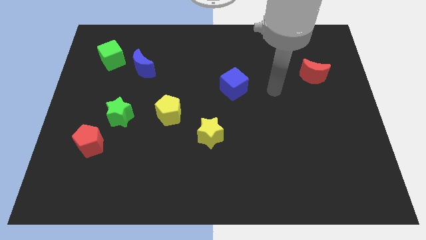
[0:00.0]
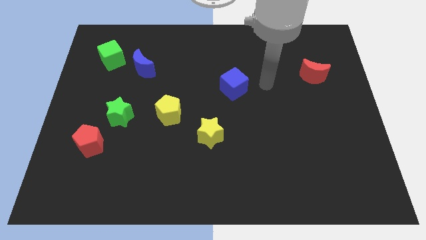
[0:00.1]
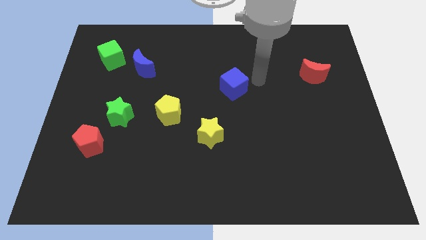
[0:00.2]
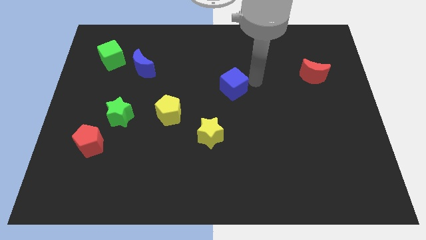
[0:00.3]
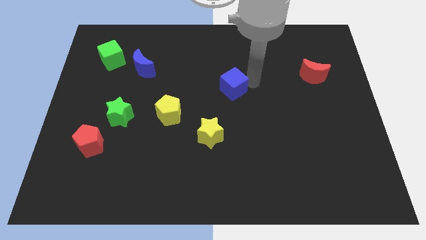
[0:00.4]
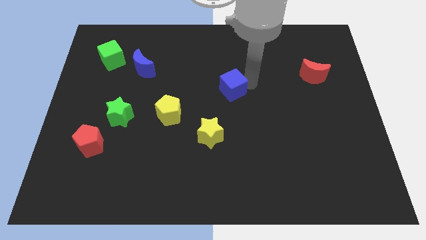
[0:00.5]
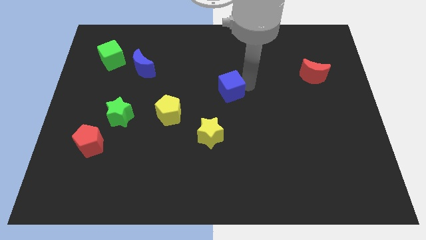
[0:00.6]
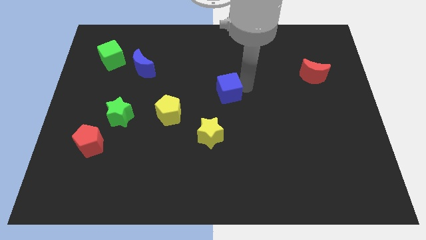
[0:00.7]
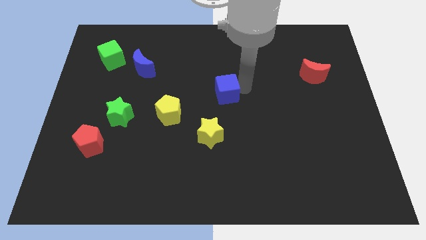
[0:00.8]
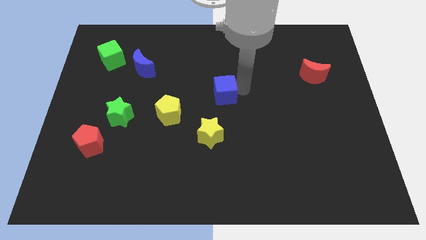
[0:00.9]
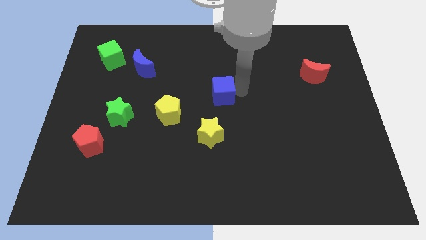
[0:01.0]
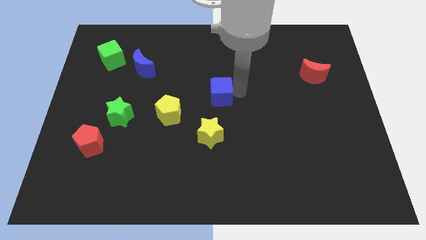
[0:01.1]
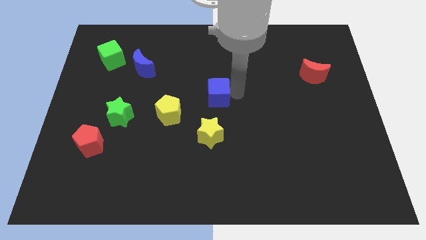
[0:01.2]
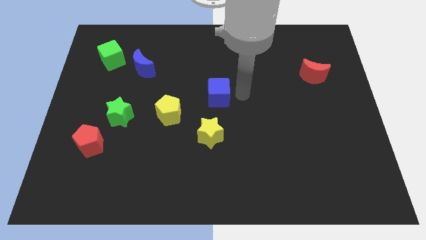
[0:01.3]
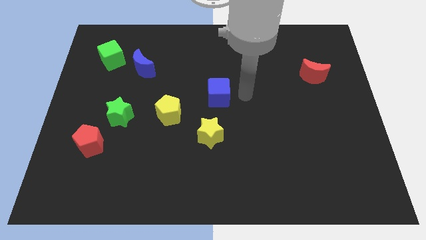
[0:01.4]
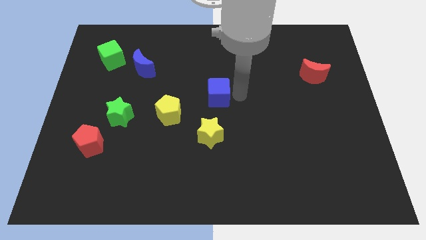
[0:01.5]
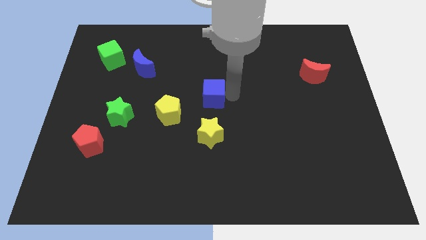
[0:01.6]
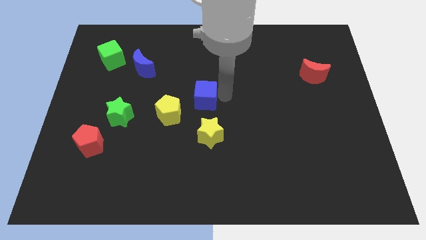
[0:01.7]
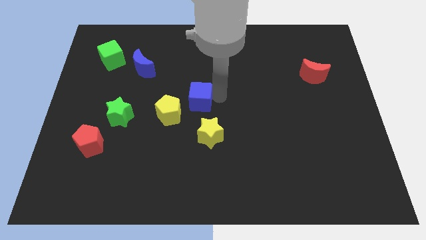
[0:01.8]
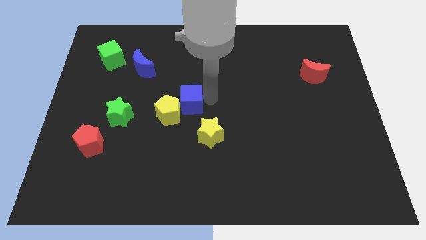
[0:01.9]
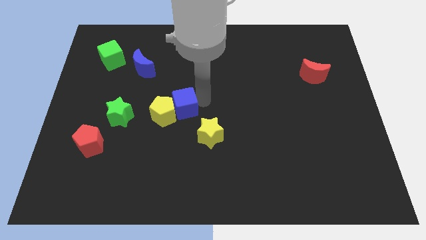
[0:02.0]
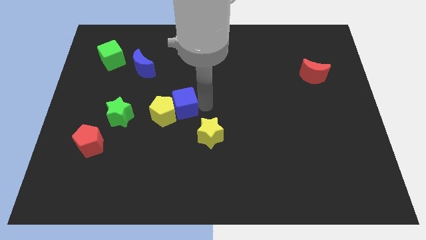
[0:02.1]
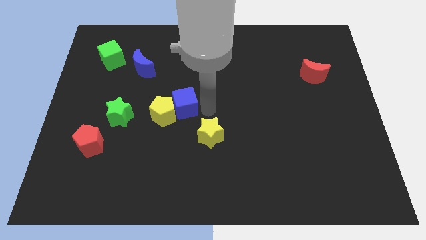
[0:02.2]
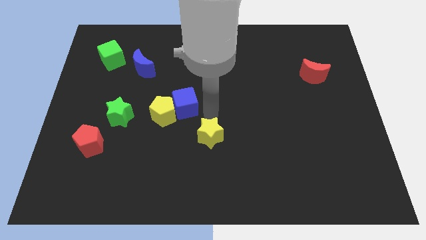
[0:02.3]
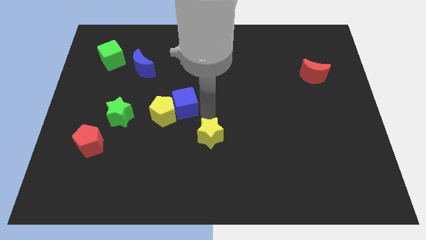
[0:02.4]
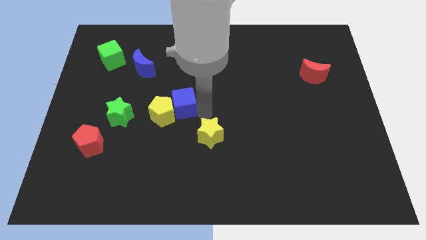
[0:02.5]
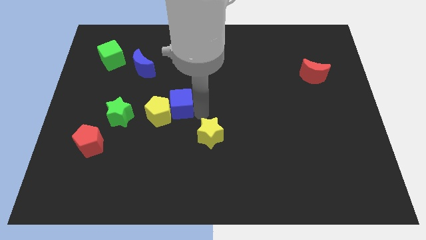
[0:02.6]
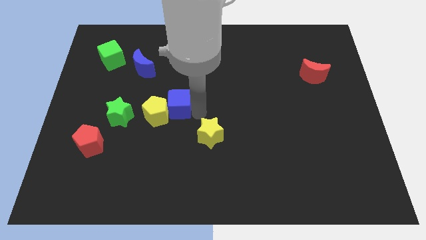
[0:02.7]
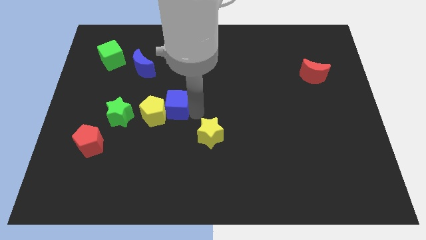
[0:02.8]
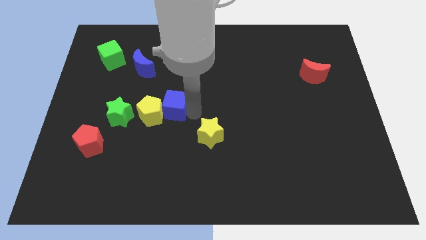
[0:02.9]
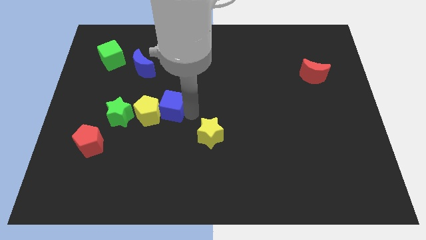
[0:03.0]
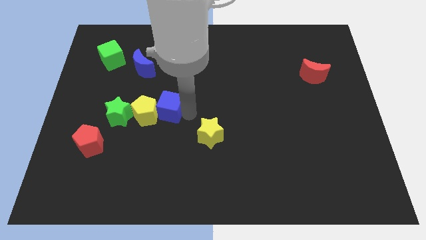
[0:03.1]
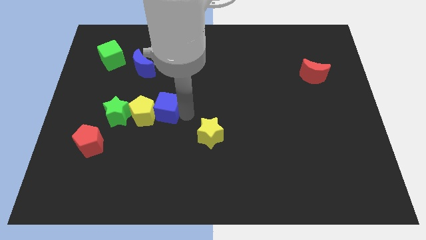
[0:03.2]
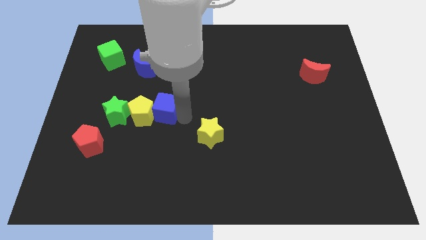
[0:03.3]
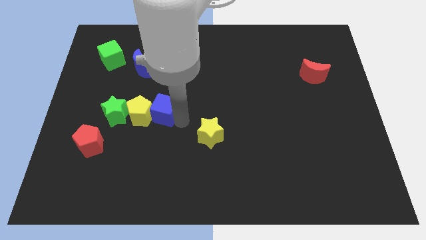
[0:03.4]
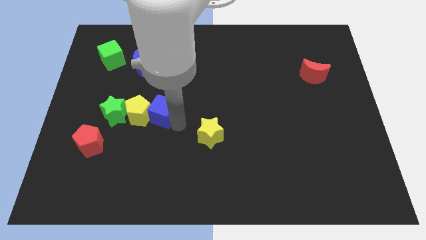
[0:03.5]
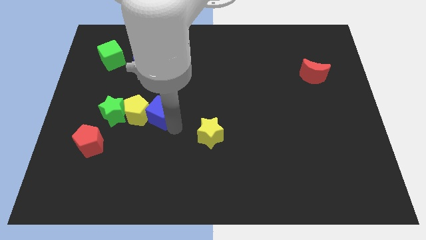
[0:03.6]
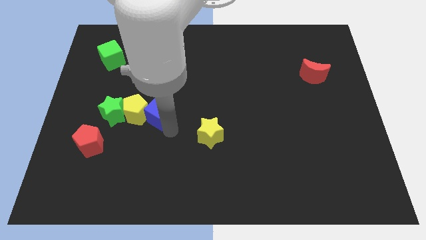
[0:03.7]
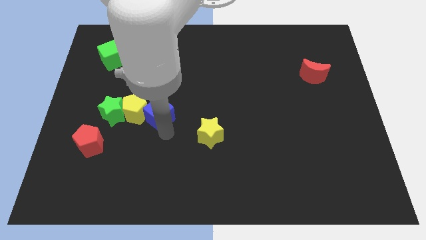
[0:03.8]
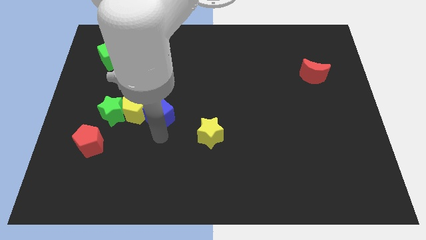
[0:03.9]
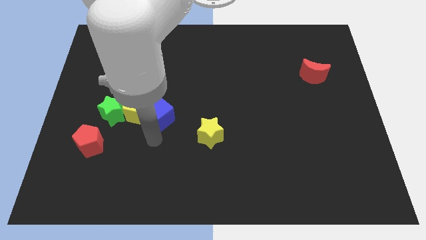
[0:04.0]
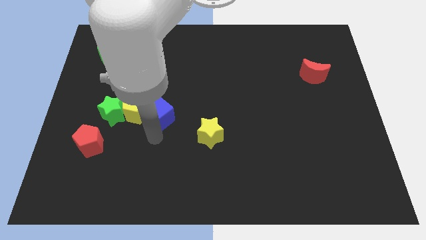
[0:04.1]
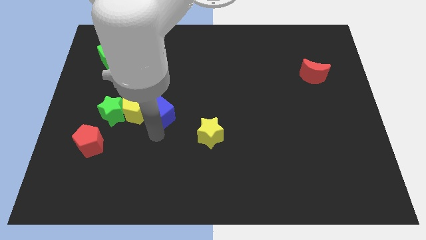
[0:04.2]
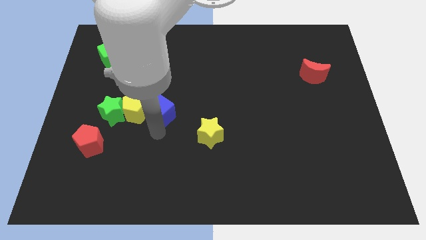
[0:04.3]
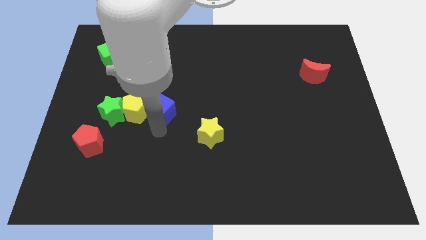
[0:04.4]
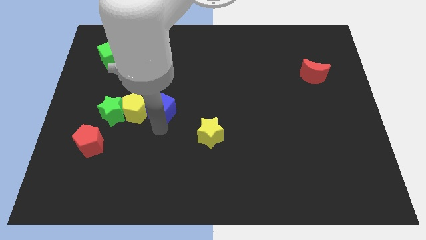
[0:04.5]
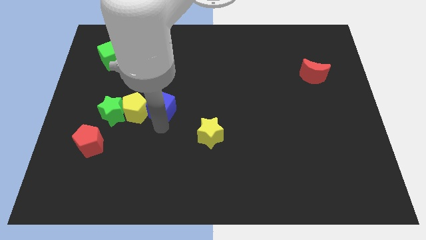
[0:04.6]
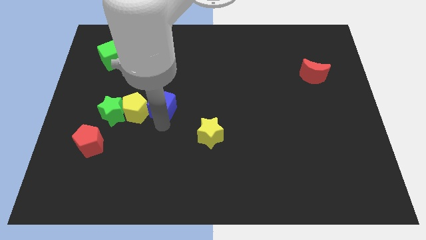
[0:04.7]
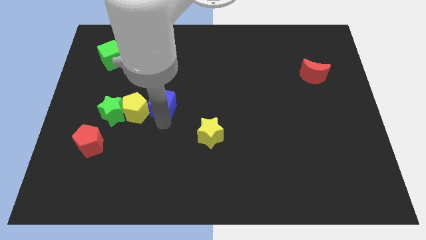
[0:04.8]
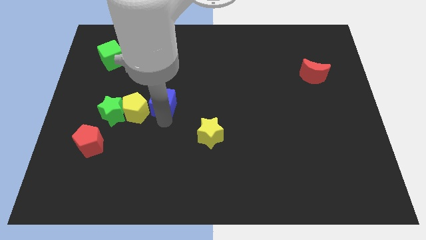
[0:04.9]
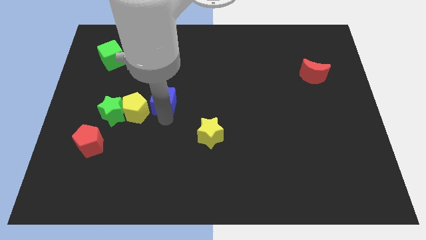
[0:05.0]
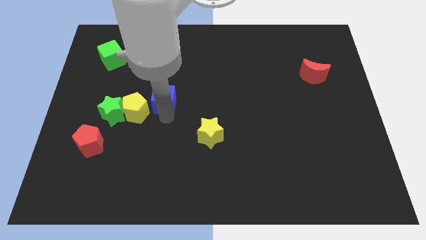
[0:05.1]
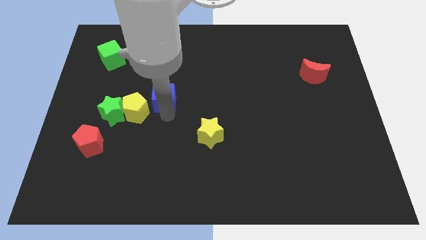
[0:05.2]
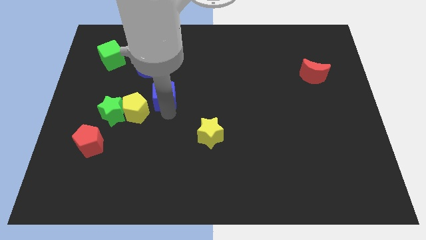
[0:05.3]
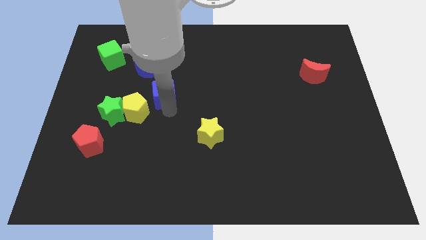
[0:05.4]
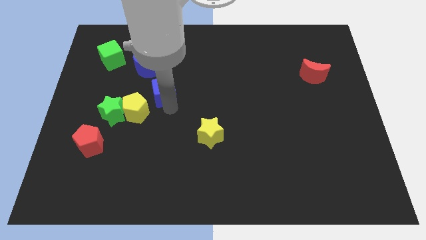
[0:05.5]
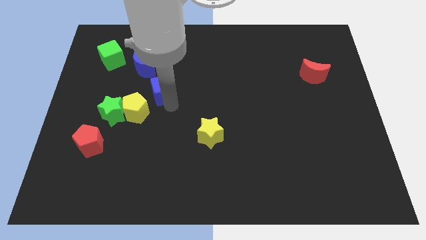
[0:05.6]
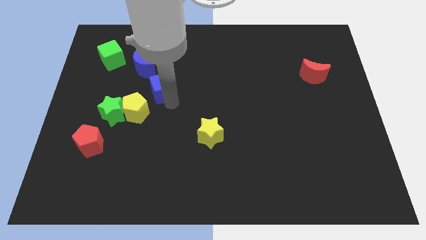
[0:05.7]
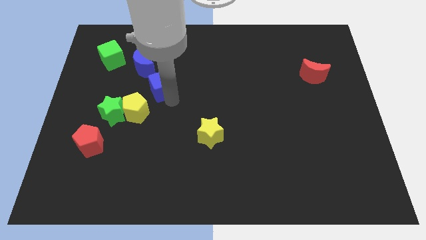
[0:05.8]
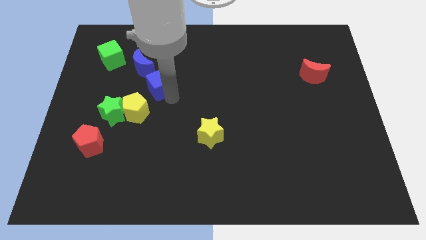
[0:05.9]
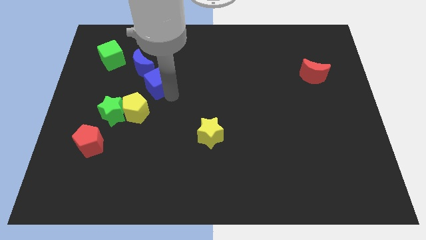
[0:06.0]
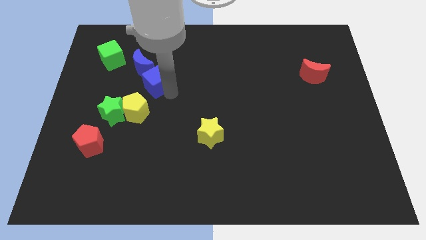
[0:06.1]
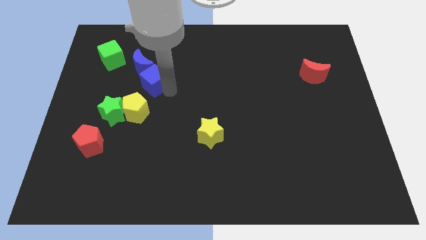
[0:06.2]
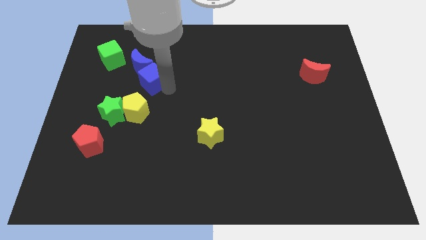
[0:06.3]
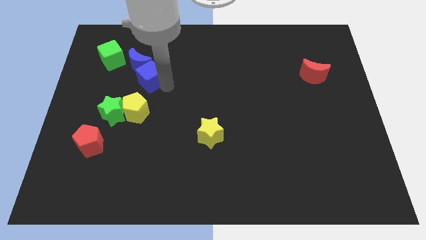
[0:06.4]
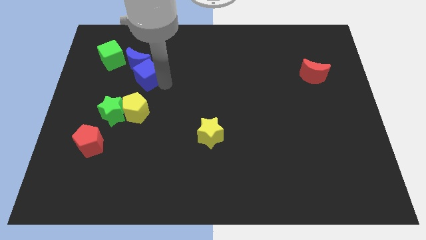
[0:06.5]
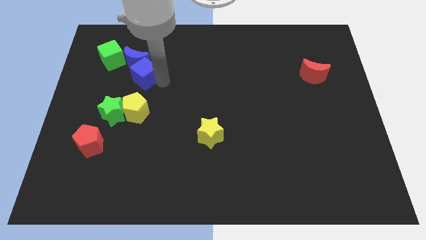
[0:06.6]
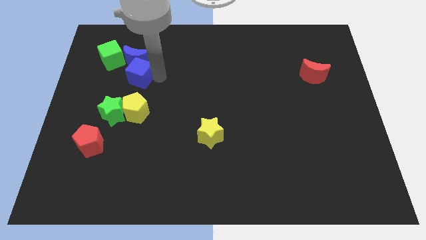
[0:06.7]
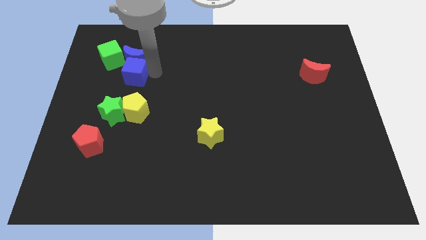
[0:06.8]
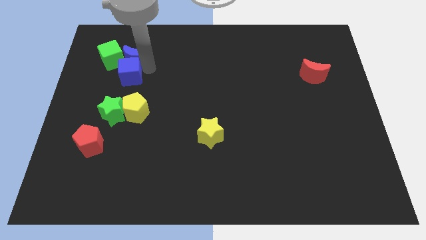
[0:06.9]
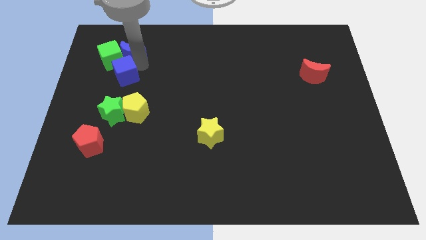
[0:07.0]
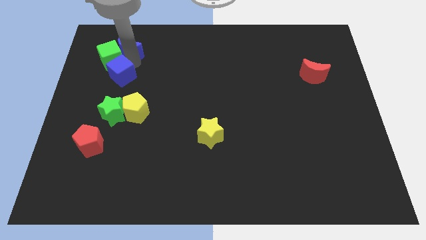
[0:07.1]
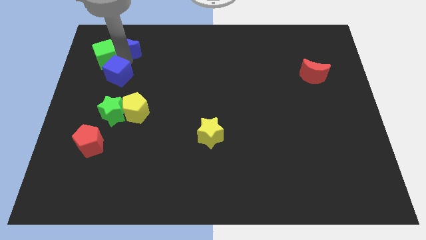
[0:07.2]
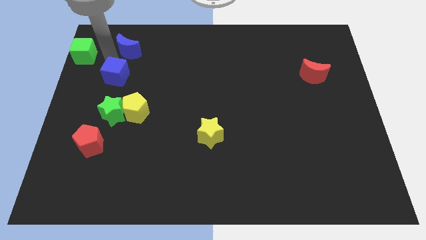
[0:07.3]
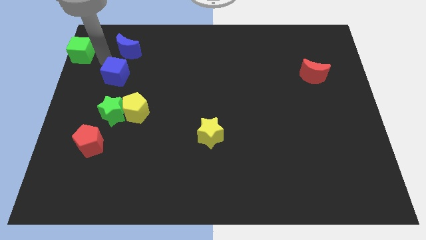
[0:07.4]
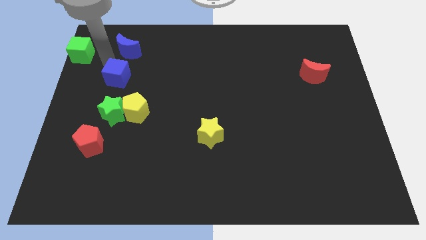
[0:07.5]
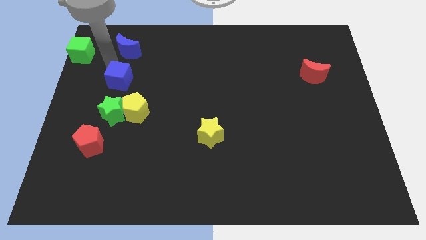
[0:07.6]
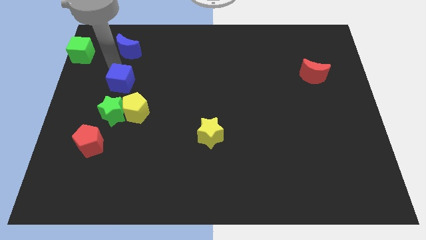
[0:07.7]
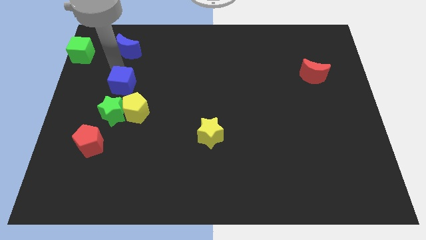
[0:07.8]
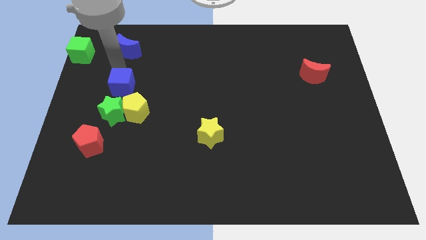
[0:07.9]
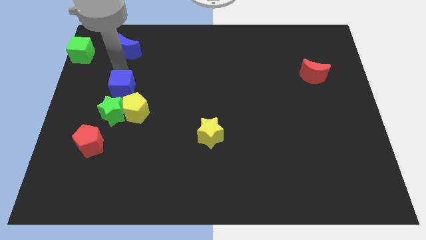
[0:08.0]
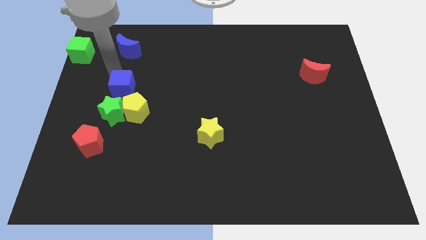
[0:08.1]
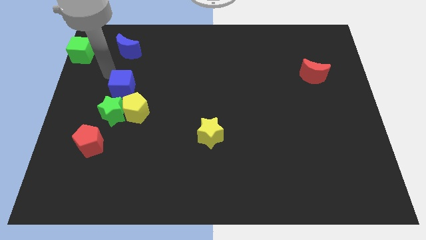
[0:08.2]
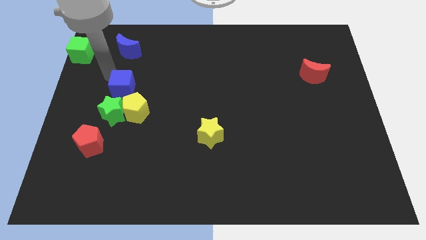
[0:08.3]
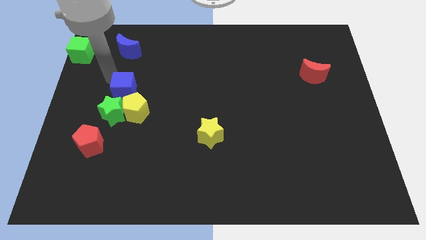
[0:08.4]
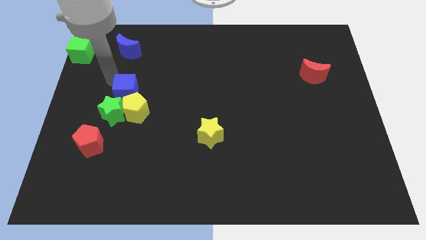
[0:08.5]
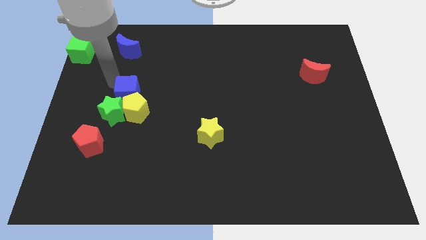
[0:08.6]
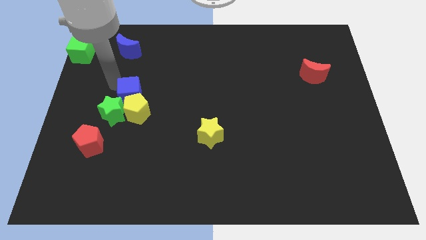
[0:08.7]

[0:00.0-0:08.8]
push the blue cube next to the green star
